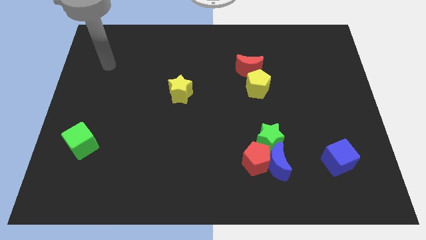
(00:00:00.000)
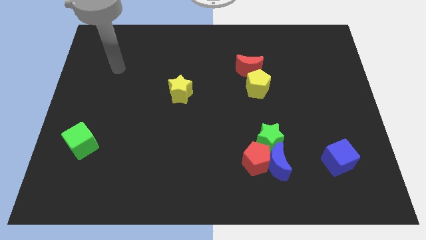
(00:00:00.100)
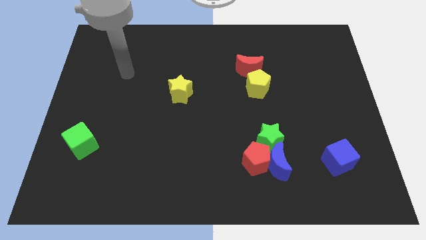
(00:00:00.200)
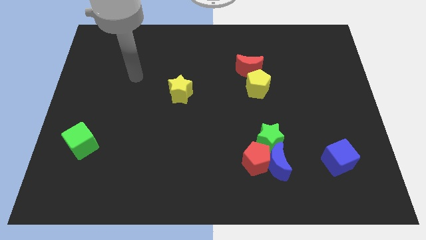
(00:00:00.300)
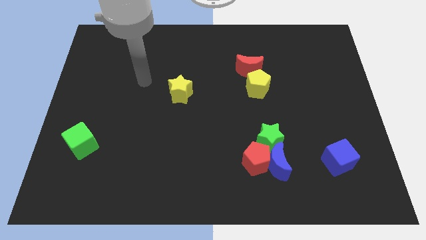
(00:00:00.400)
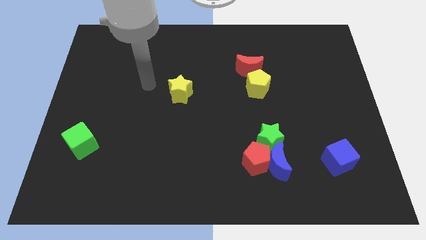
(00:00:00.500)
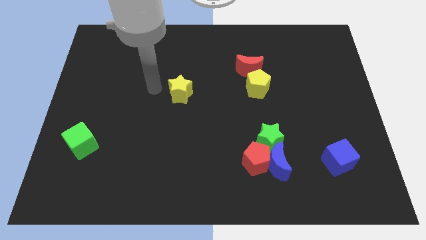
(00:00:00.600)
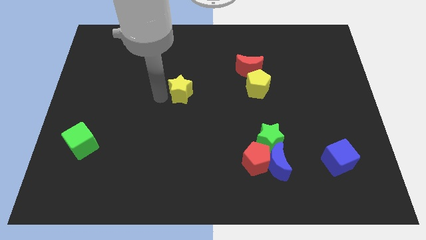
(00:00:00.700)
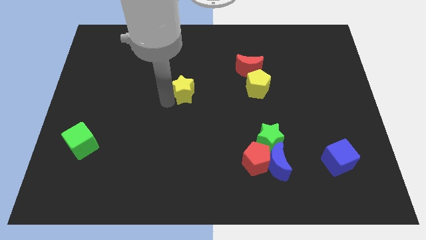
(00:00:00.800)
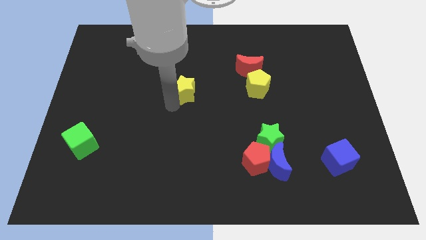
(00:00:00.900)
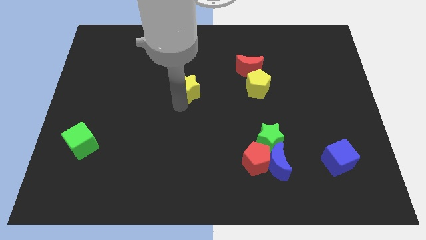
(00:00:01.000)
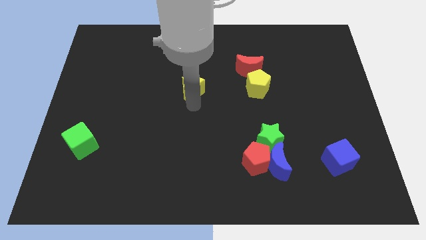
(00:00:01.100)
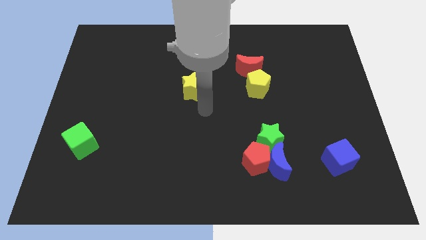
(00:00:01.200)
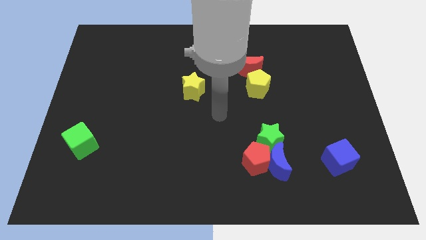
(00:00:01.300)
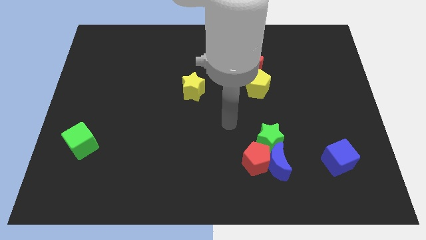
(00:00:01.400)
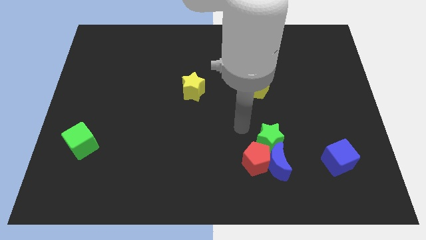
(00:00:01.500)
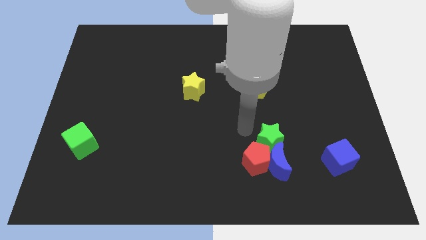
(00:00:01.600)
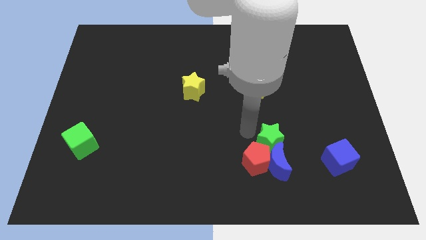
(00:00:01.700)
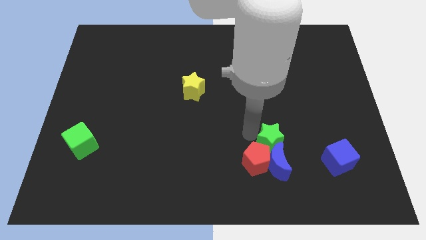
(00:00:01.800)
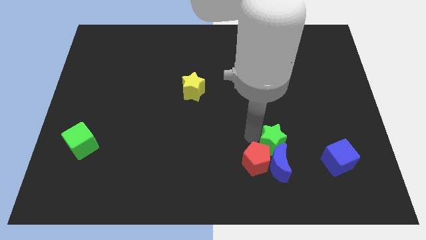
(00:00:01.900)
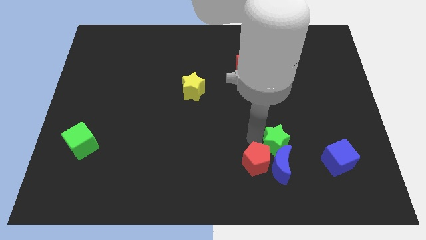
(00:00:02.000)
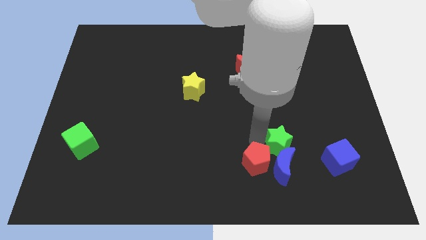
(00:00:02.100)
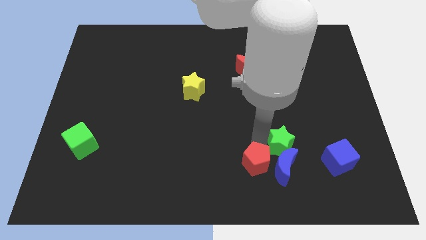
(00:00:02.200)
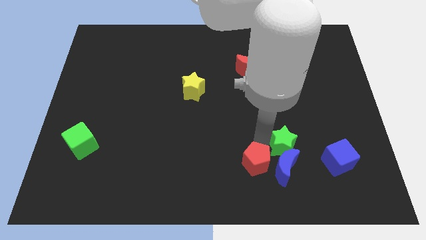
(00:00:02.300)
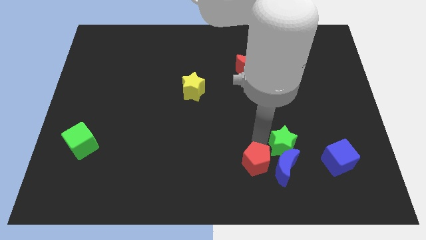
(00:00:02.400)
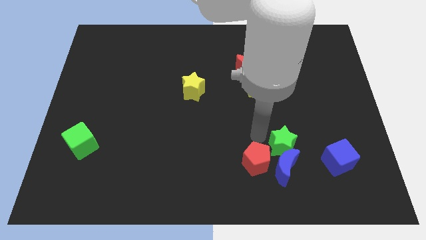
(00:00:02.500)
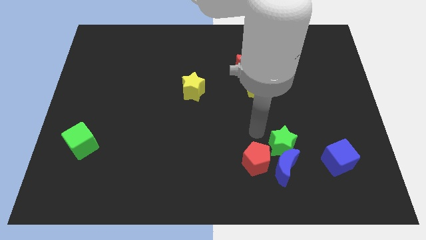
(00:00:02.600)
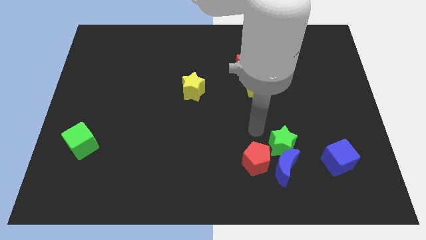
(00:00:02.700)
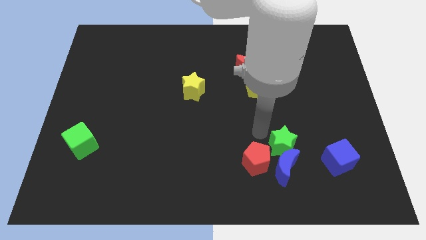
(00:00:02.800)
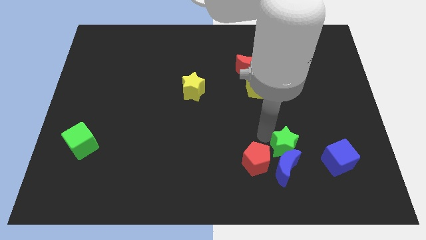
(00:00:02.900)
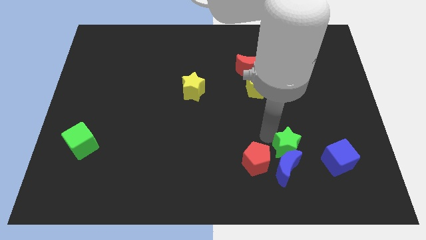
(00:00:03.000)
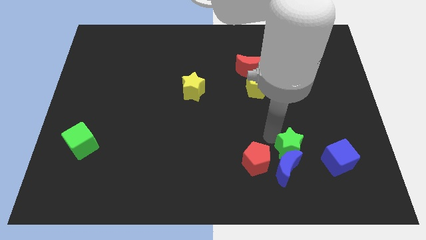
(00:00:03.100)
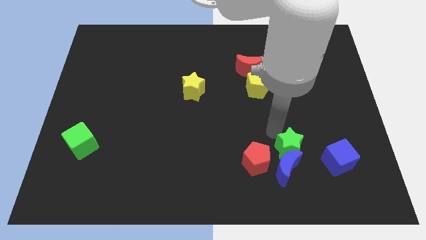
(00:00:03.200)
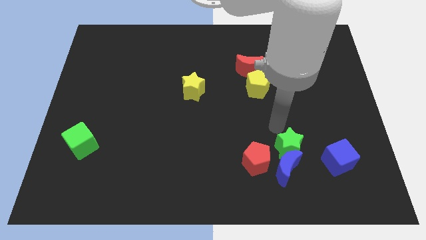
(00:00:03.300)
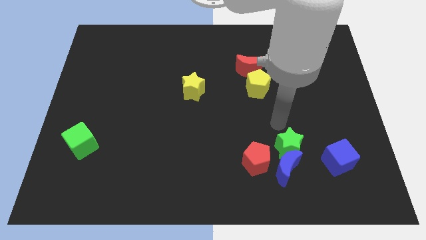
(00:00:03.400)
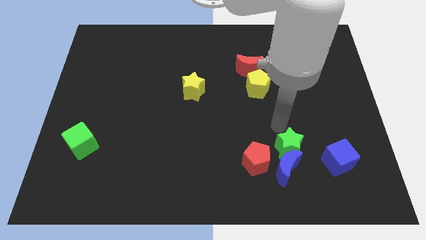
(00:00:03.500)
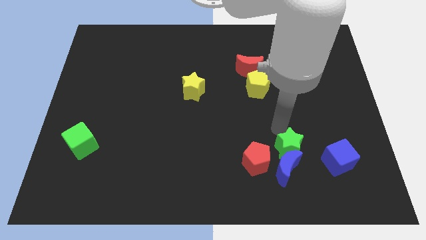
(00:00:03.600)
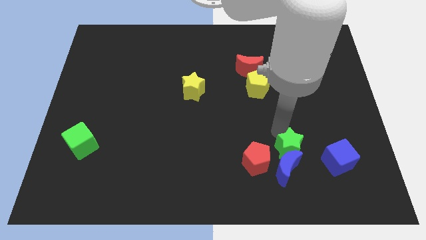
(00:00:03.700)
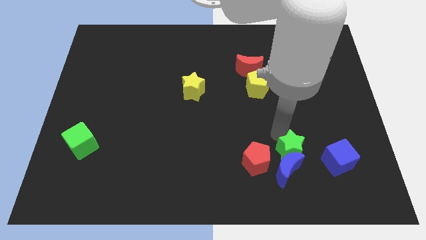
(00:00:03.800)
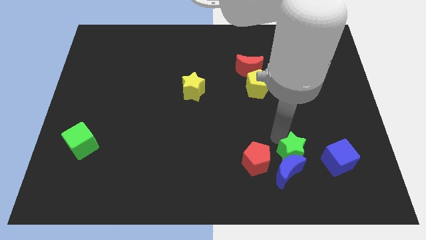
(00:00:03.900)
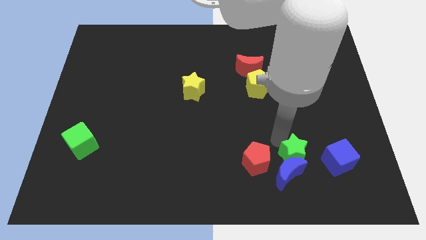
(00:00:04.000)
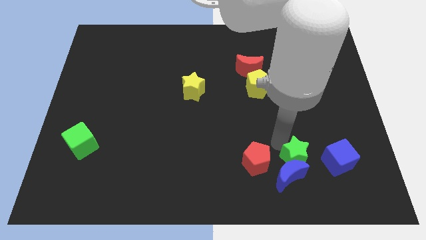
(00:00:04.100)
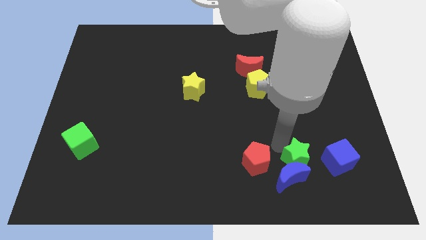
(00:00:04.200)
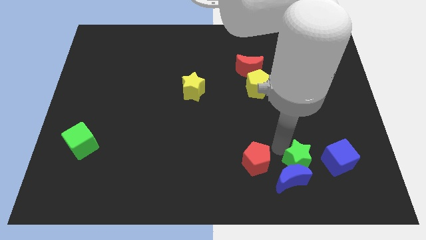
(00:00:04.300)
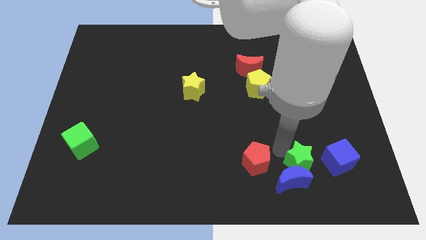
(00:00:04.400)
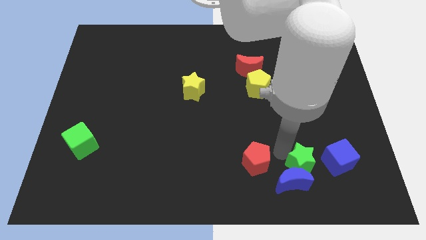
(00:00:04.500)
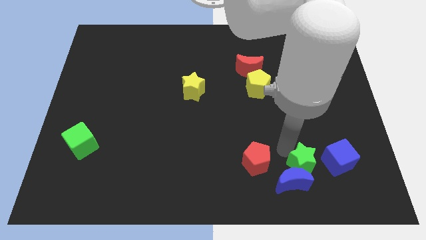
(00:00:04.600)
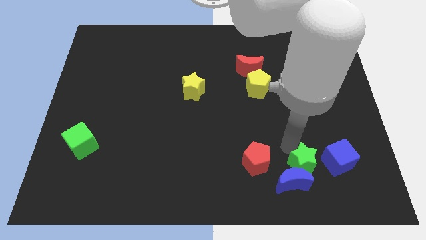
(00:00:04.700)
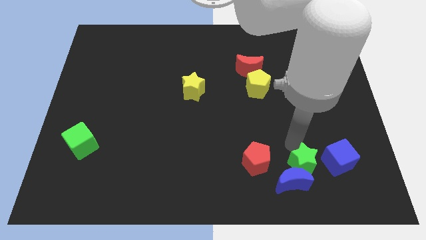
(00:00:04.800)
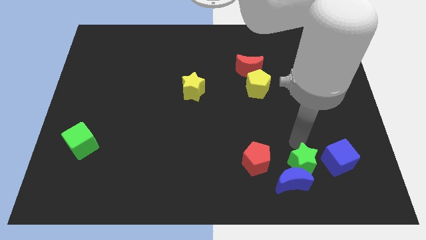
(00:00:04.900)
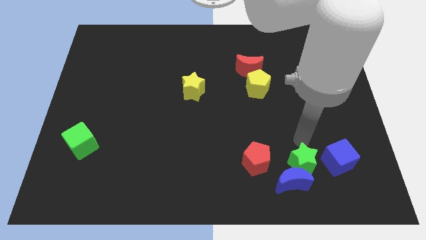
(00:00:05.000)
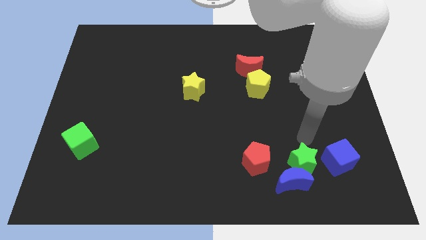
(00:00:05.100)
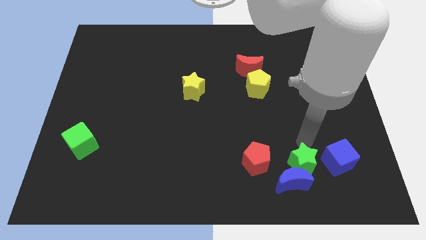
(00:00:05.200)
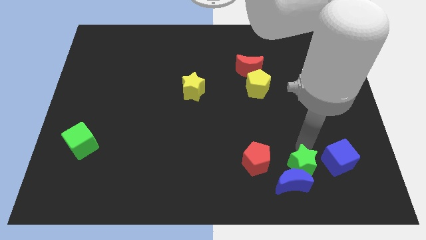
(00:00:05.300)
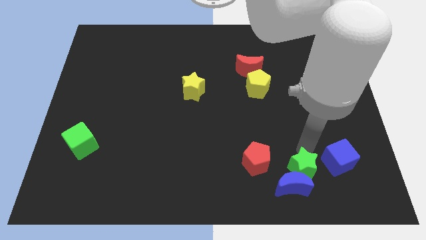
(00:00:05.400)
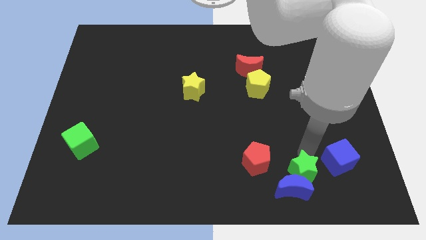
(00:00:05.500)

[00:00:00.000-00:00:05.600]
put the green star diagonally down and to the right of the red pentagon

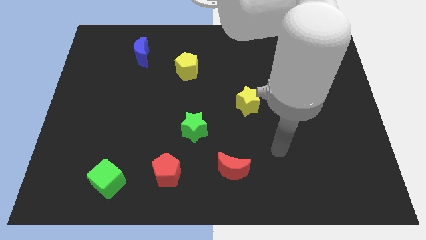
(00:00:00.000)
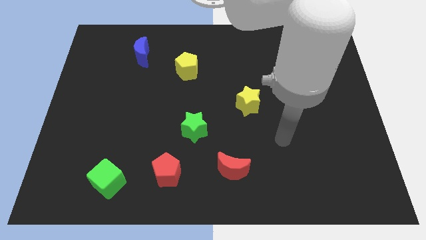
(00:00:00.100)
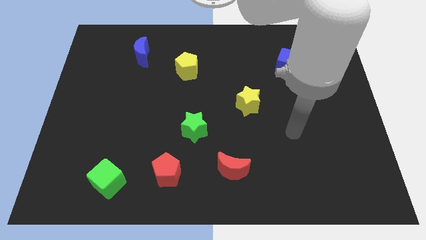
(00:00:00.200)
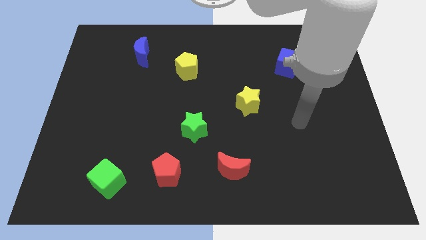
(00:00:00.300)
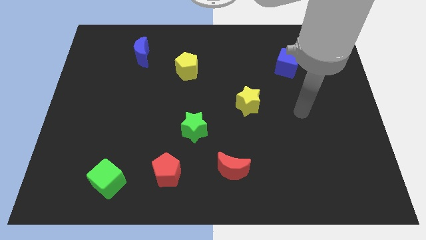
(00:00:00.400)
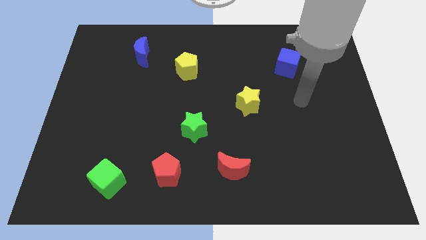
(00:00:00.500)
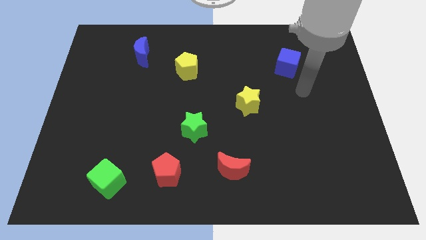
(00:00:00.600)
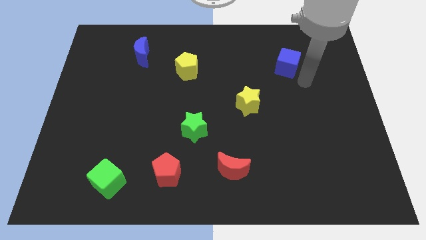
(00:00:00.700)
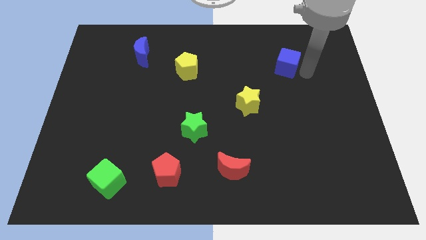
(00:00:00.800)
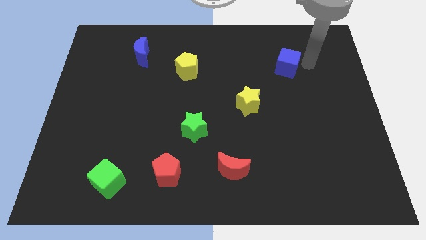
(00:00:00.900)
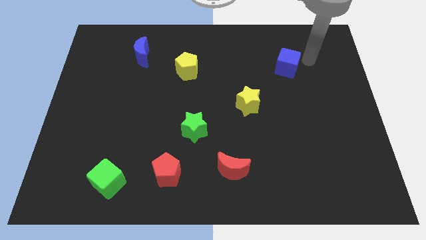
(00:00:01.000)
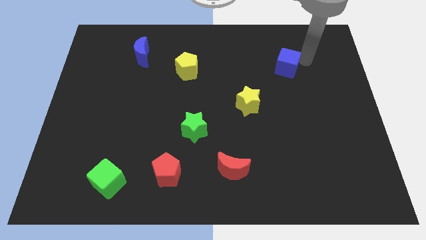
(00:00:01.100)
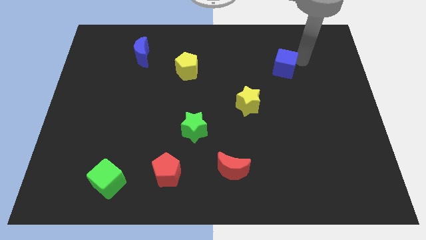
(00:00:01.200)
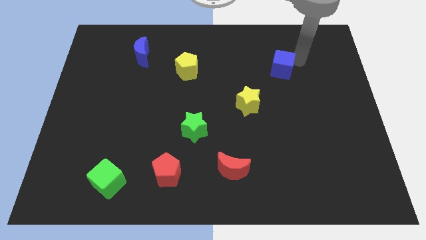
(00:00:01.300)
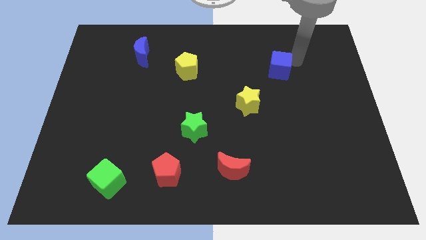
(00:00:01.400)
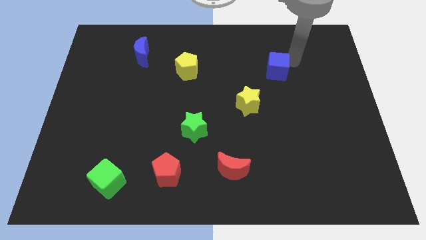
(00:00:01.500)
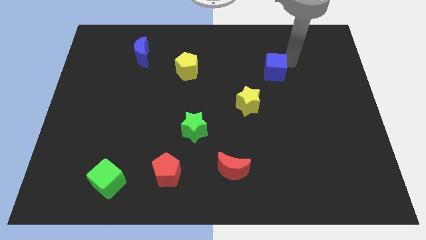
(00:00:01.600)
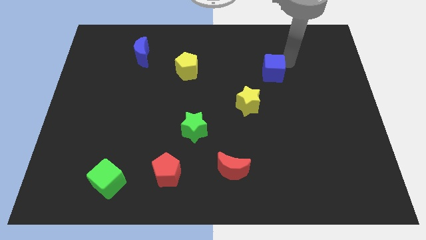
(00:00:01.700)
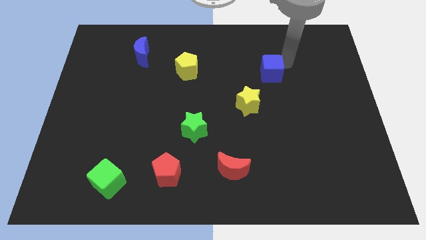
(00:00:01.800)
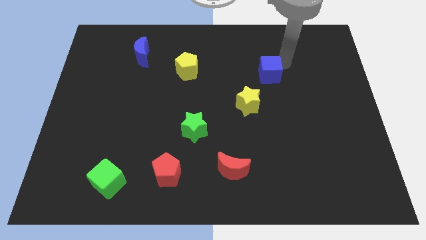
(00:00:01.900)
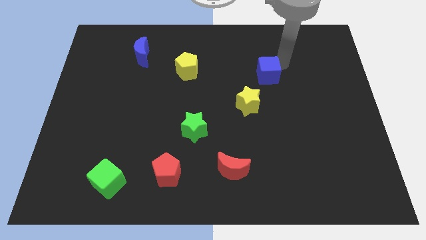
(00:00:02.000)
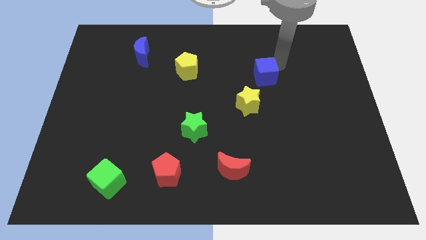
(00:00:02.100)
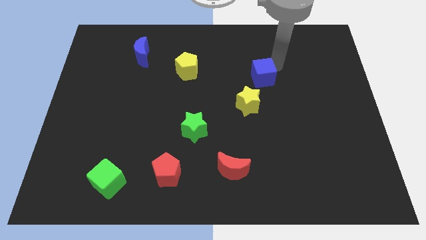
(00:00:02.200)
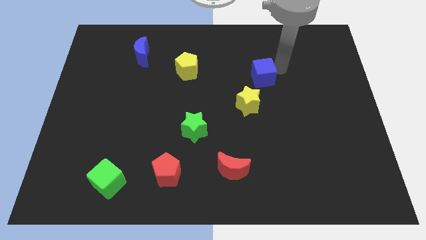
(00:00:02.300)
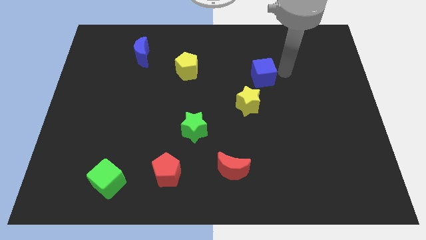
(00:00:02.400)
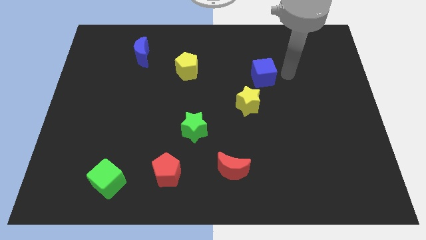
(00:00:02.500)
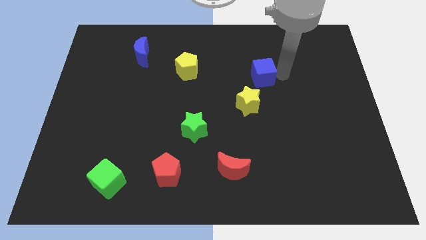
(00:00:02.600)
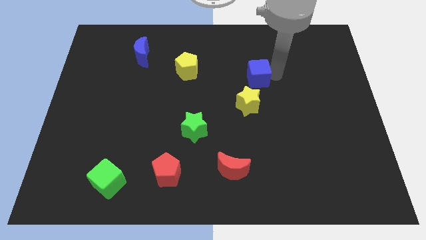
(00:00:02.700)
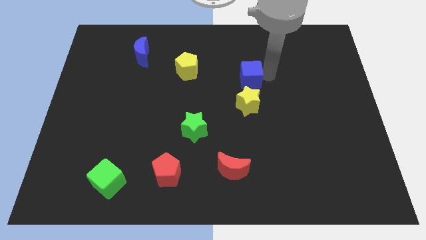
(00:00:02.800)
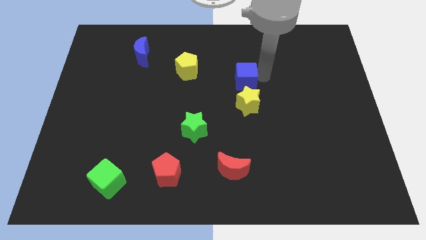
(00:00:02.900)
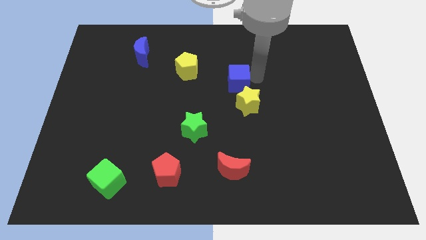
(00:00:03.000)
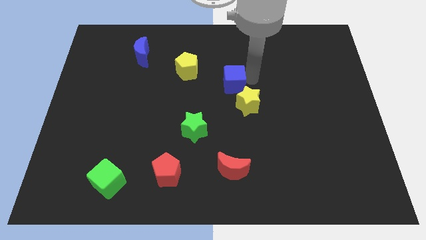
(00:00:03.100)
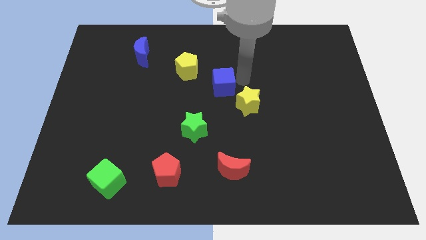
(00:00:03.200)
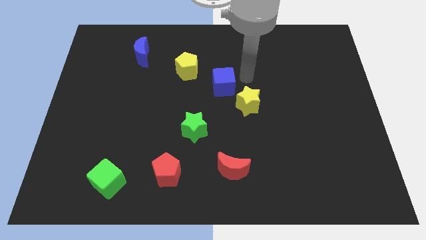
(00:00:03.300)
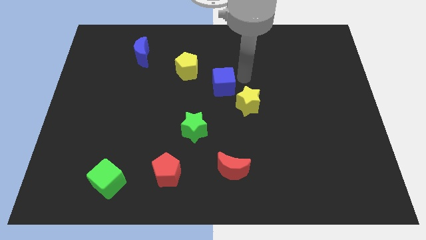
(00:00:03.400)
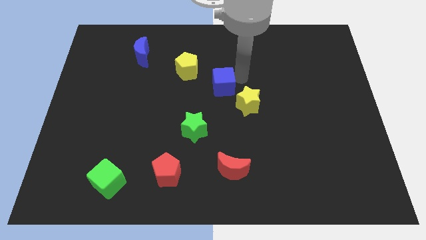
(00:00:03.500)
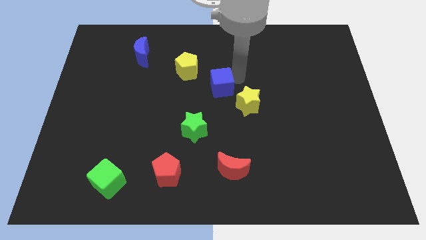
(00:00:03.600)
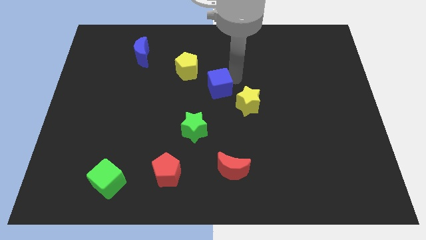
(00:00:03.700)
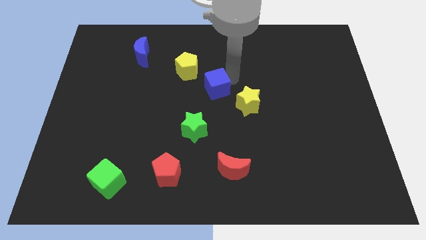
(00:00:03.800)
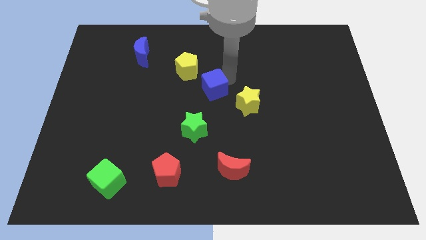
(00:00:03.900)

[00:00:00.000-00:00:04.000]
push the blue cube to the top of the green star
